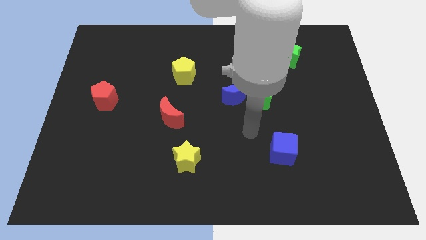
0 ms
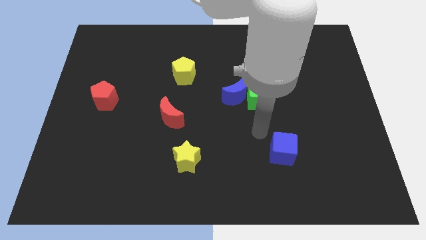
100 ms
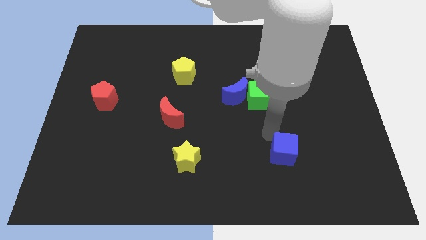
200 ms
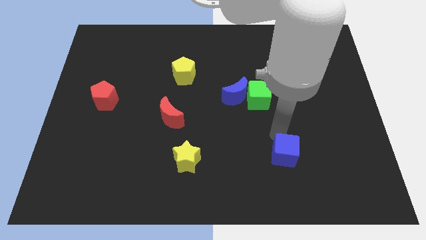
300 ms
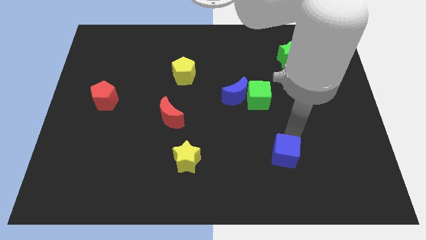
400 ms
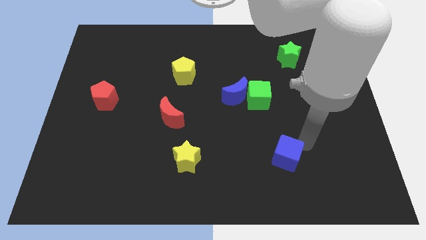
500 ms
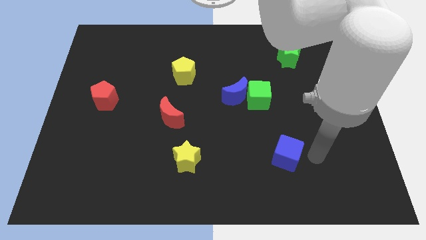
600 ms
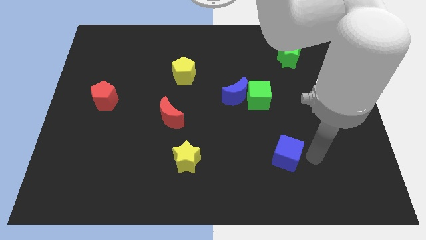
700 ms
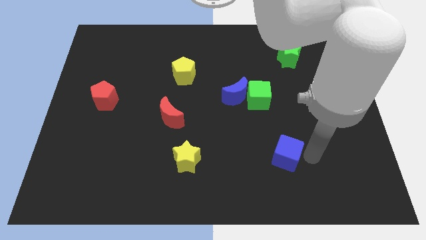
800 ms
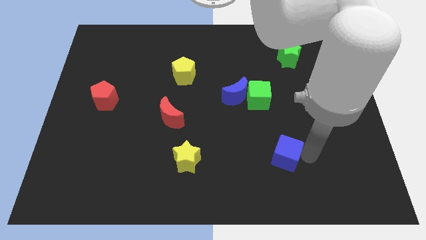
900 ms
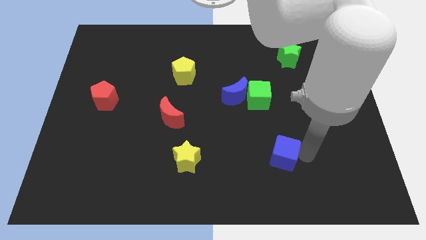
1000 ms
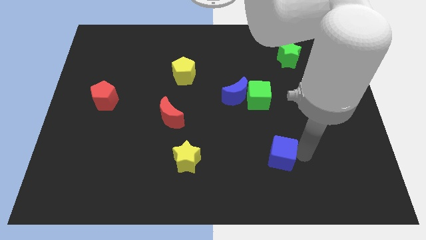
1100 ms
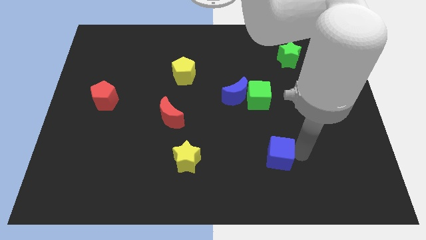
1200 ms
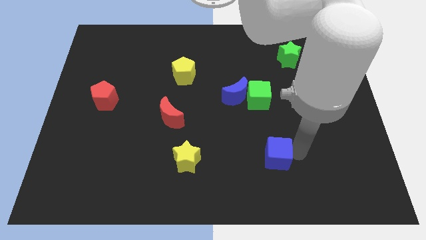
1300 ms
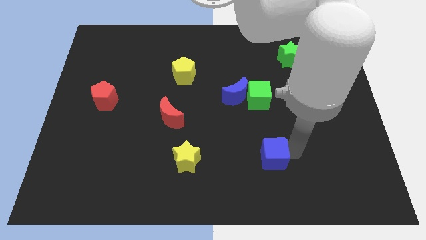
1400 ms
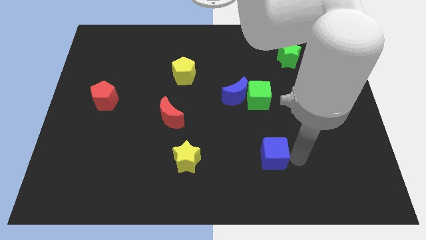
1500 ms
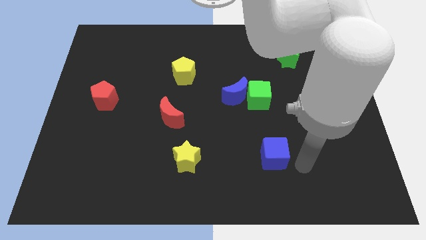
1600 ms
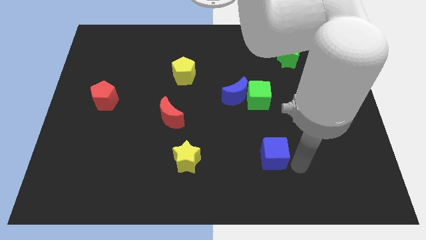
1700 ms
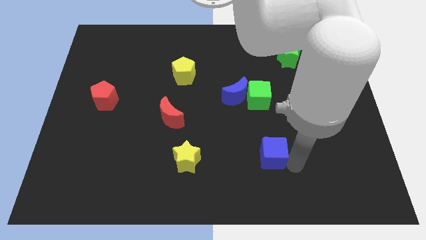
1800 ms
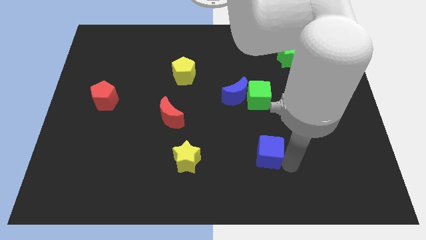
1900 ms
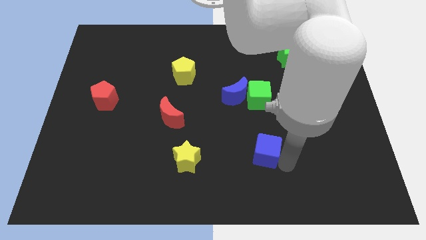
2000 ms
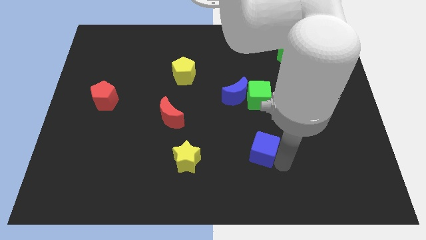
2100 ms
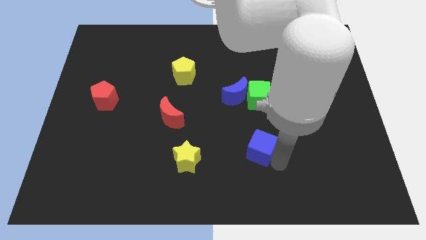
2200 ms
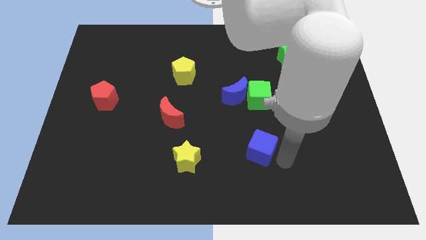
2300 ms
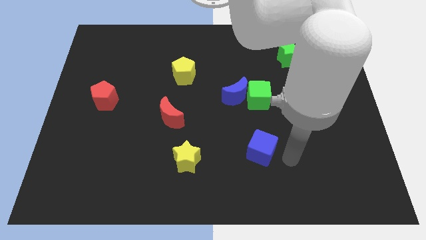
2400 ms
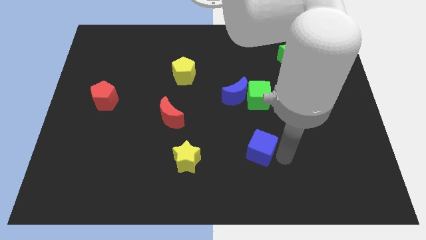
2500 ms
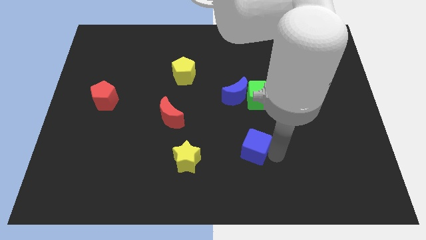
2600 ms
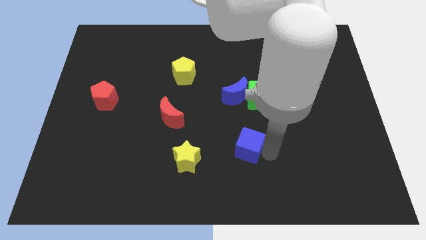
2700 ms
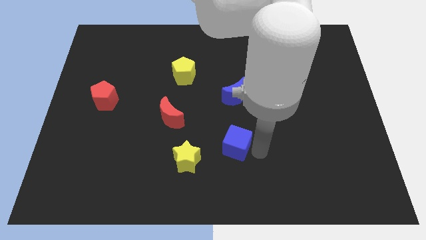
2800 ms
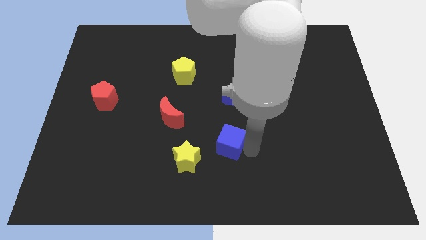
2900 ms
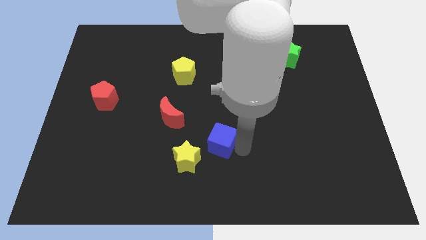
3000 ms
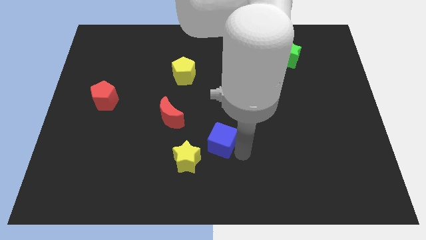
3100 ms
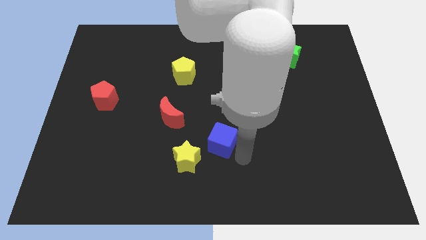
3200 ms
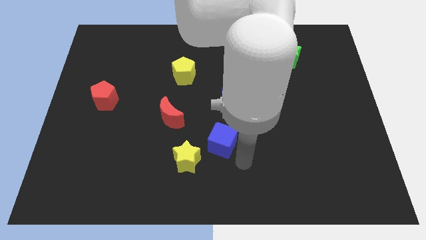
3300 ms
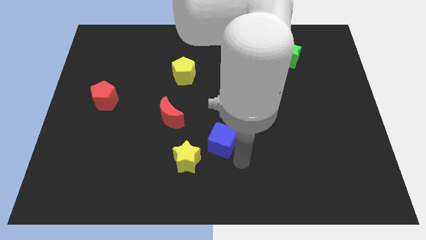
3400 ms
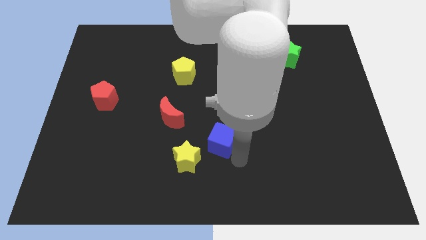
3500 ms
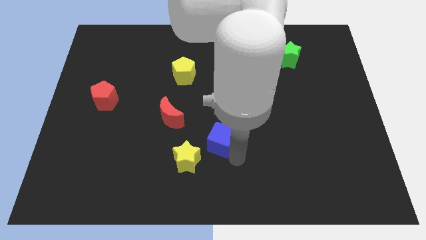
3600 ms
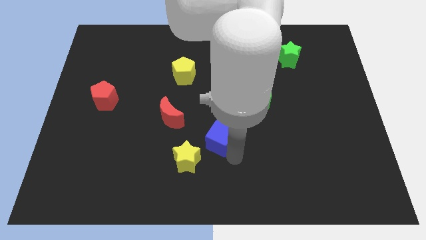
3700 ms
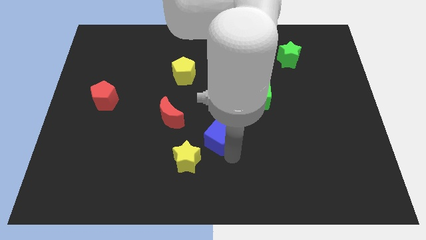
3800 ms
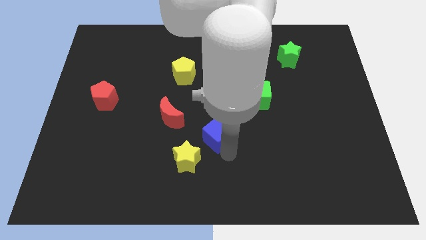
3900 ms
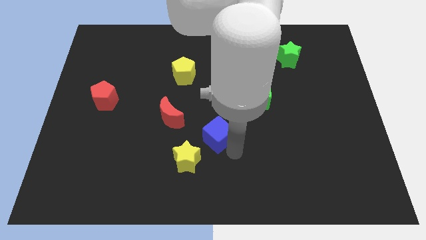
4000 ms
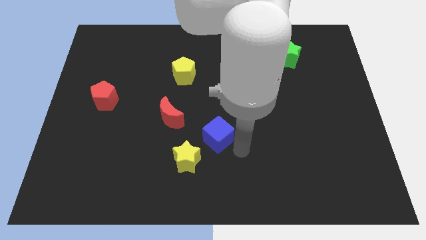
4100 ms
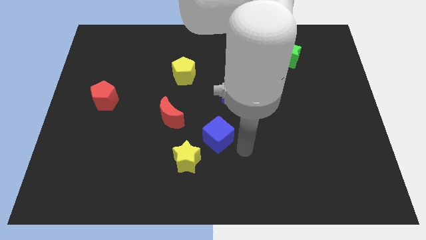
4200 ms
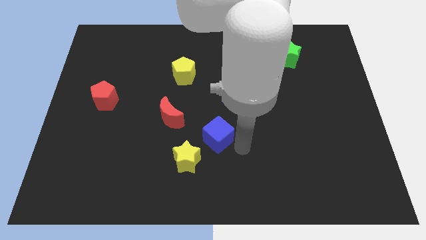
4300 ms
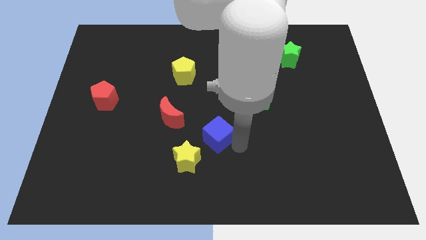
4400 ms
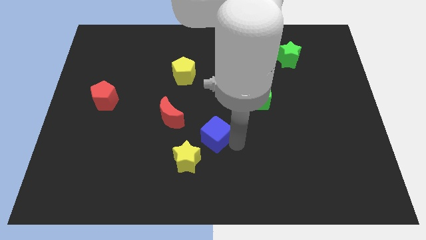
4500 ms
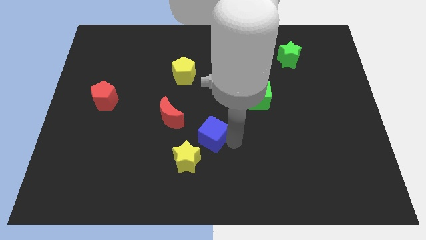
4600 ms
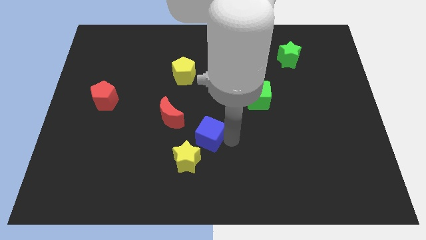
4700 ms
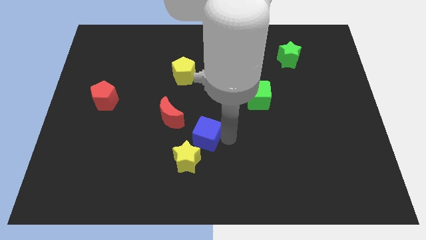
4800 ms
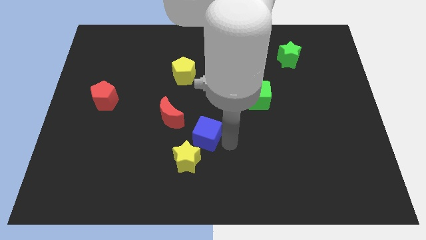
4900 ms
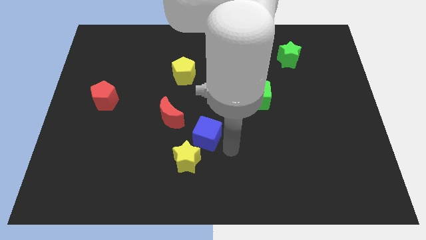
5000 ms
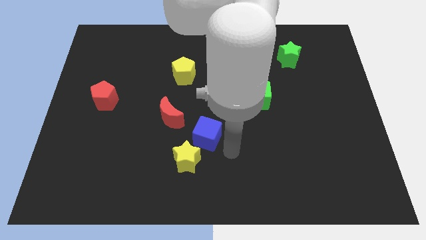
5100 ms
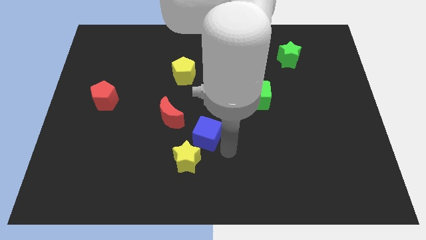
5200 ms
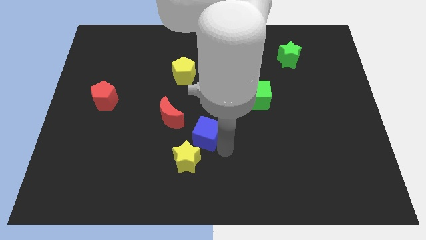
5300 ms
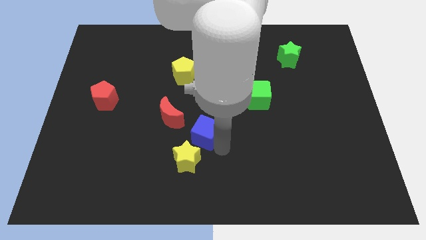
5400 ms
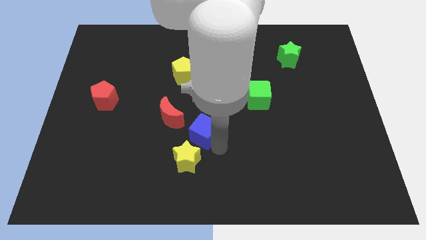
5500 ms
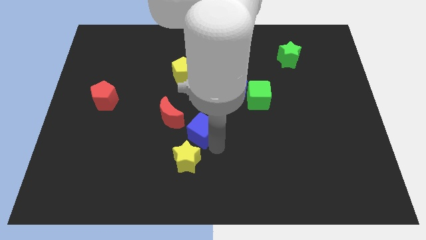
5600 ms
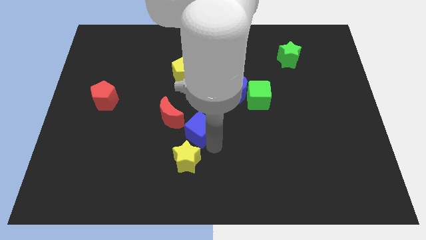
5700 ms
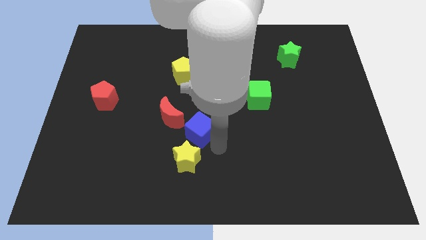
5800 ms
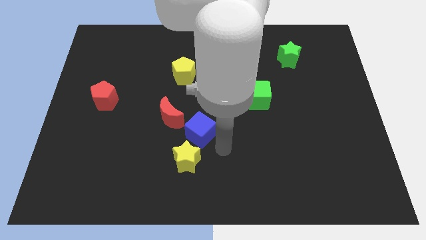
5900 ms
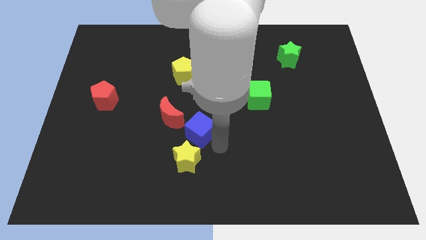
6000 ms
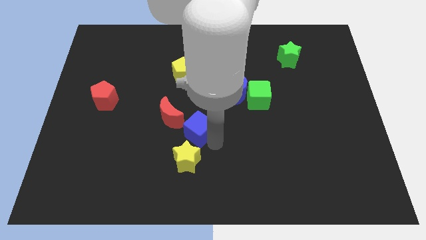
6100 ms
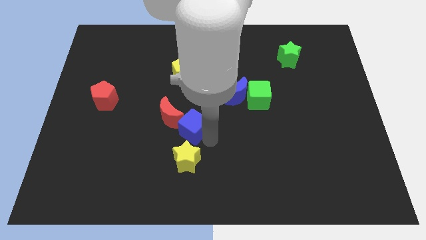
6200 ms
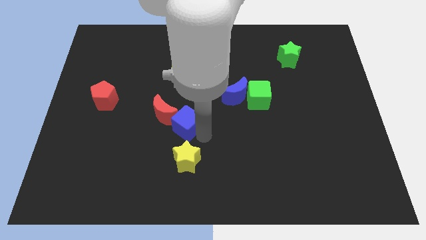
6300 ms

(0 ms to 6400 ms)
push the blue cube to the red moon
